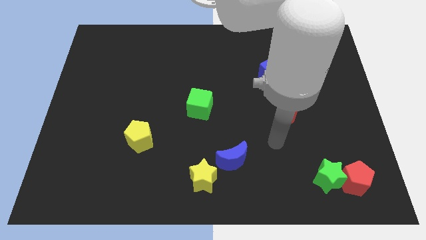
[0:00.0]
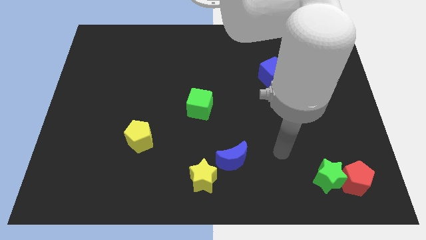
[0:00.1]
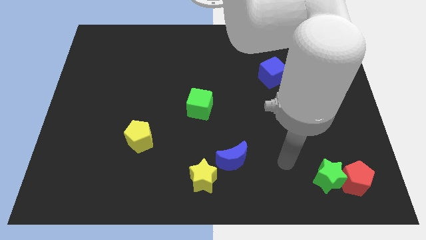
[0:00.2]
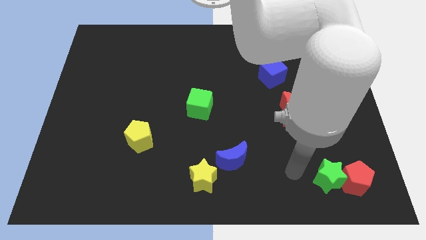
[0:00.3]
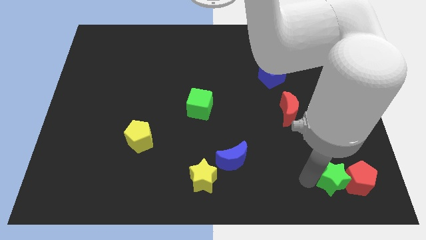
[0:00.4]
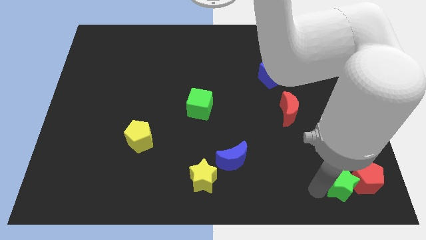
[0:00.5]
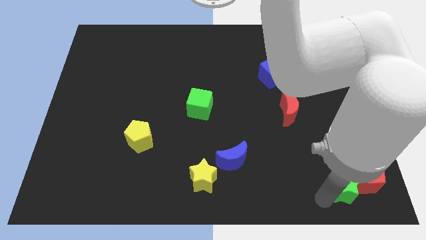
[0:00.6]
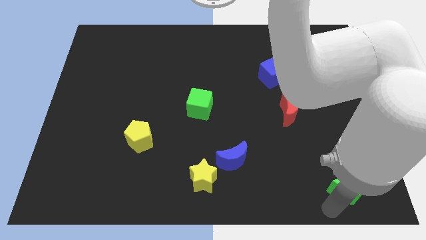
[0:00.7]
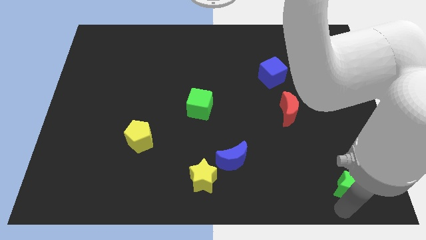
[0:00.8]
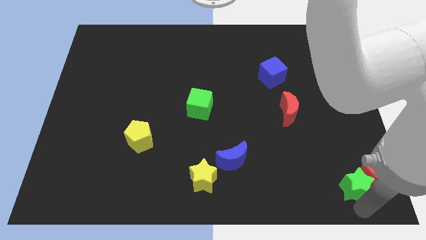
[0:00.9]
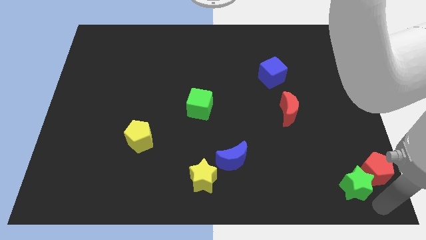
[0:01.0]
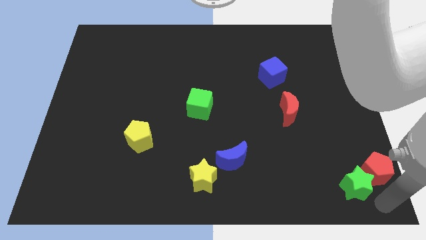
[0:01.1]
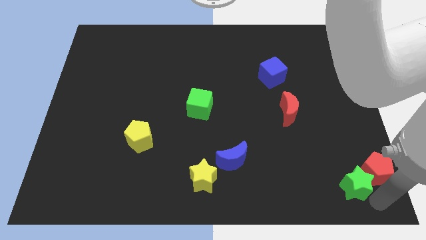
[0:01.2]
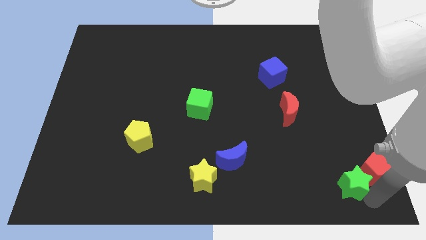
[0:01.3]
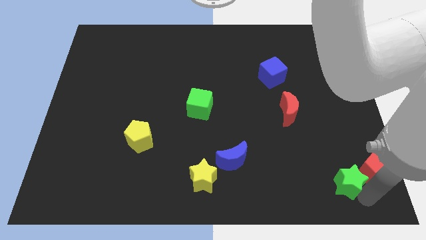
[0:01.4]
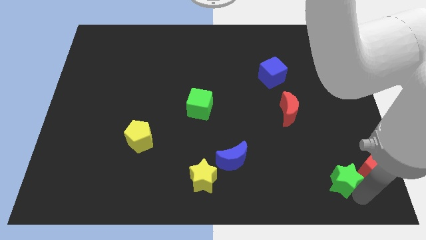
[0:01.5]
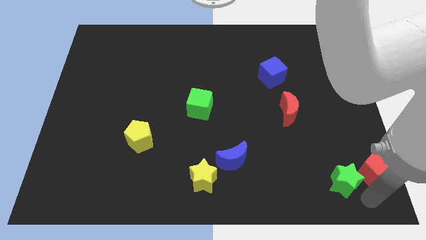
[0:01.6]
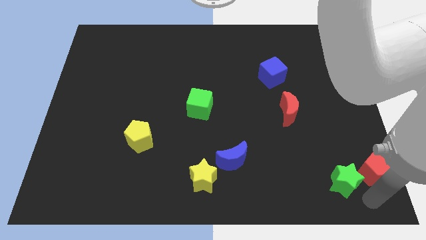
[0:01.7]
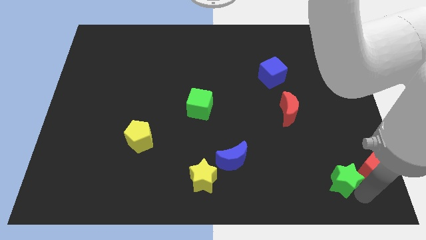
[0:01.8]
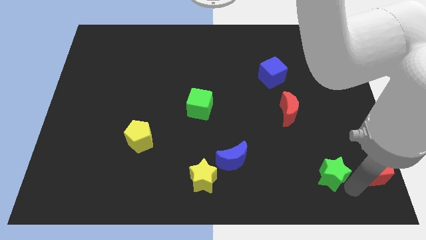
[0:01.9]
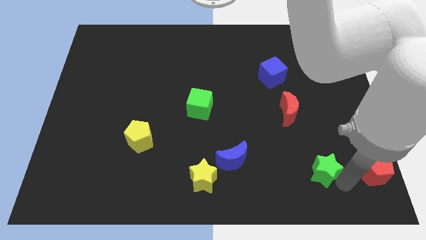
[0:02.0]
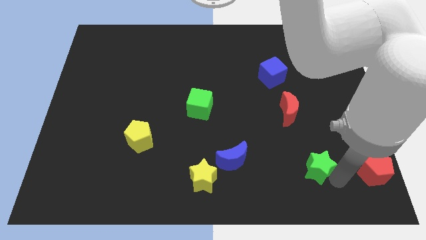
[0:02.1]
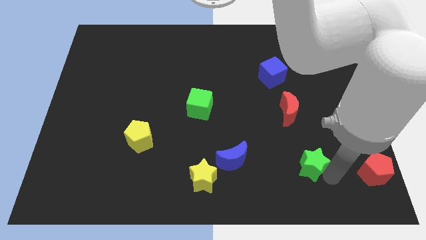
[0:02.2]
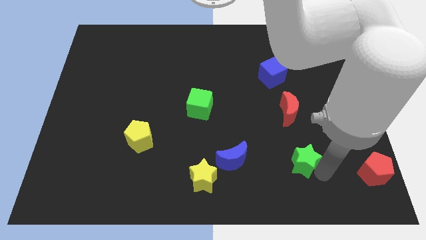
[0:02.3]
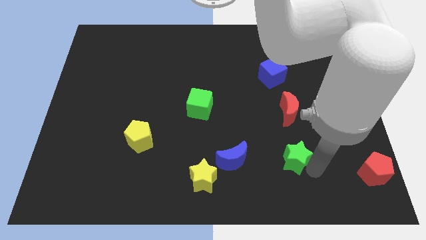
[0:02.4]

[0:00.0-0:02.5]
slide the green star somewhat up and to the left diagonally

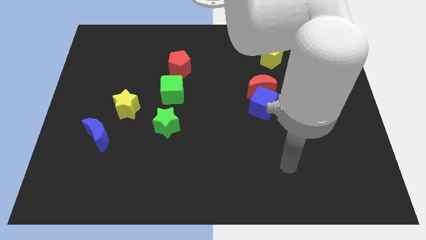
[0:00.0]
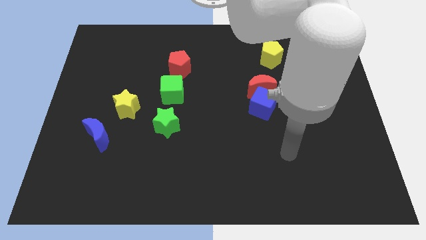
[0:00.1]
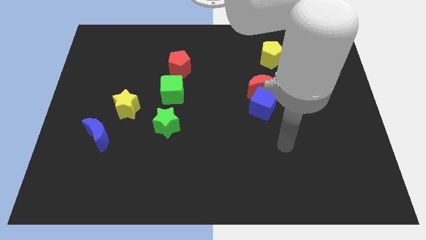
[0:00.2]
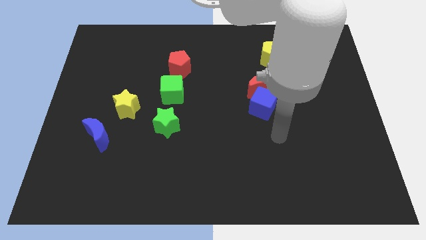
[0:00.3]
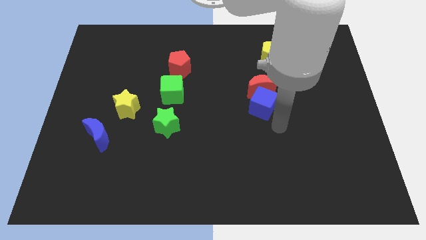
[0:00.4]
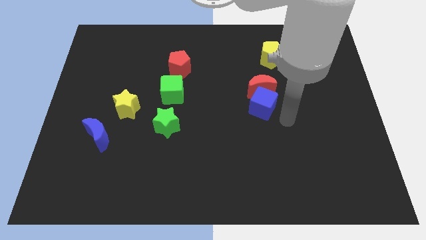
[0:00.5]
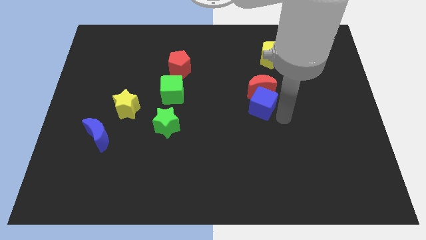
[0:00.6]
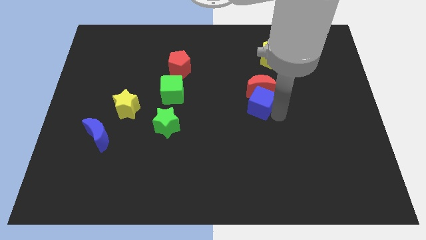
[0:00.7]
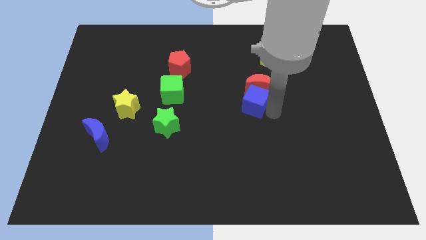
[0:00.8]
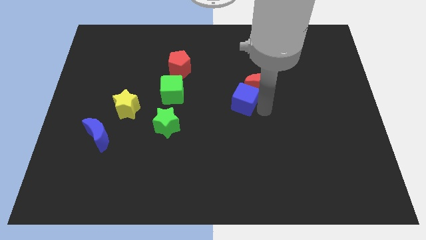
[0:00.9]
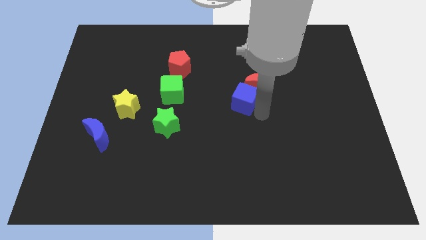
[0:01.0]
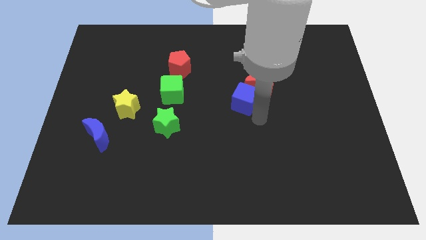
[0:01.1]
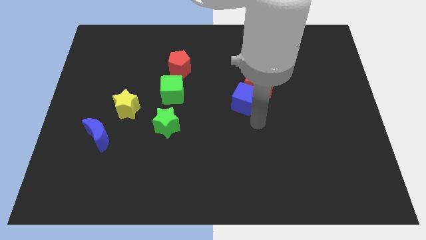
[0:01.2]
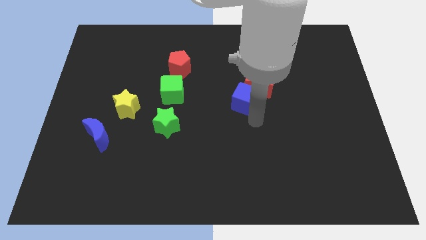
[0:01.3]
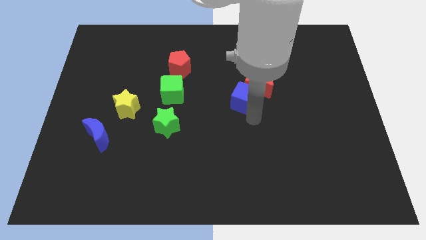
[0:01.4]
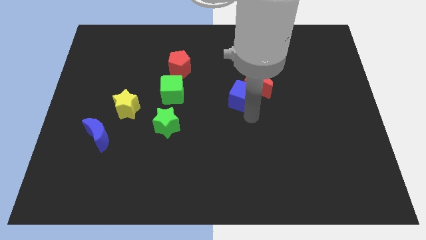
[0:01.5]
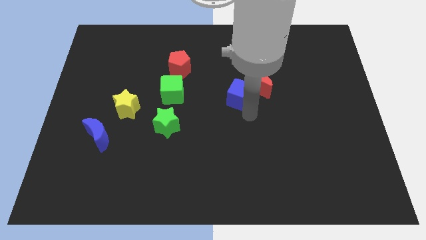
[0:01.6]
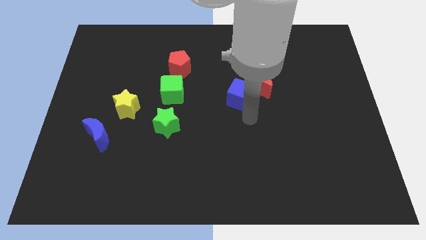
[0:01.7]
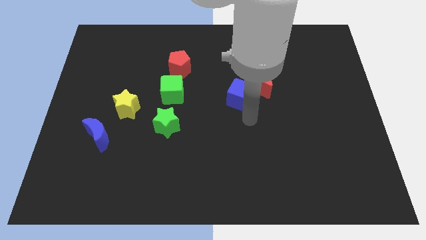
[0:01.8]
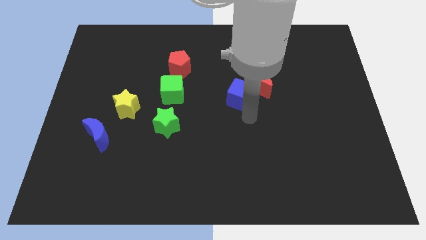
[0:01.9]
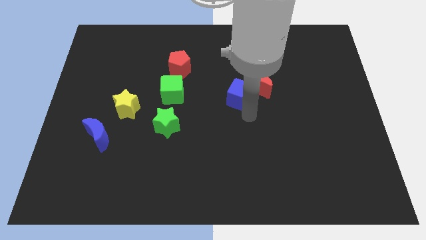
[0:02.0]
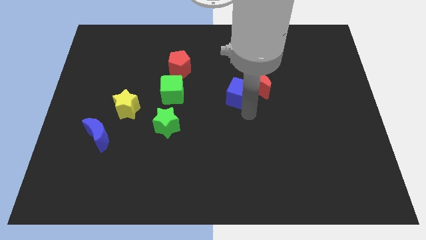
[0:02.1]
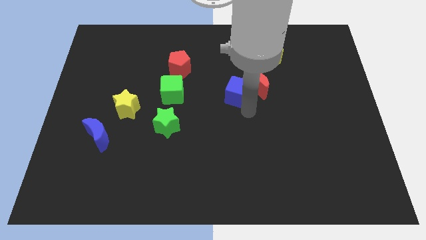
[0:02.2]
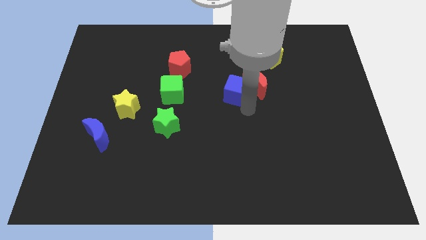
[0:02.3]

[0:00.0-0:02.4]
slide the blue cube upwards and then left slightly

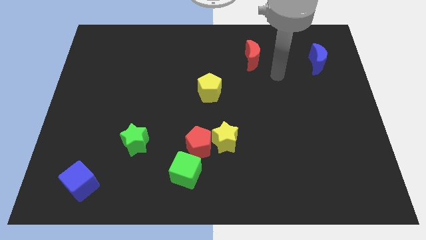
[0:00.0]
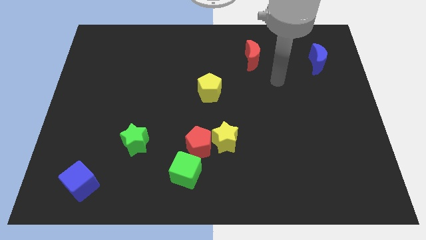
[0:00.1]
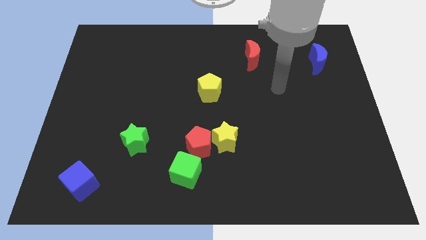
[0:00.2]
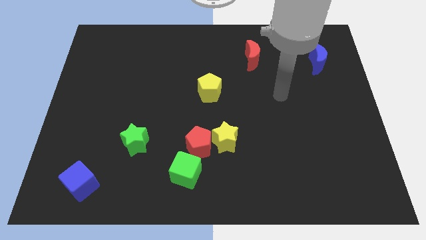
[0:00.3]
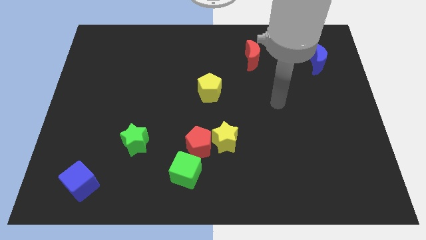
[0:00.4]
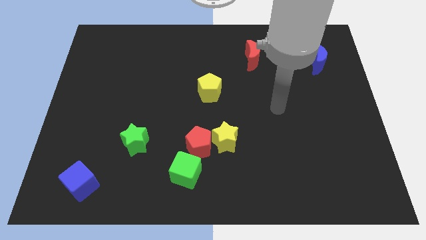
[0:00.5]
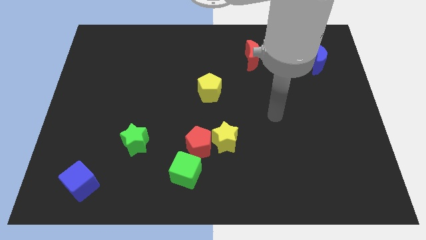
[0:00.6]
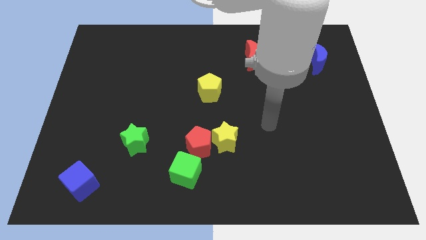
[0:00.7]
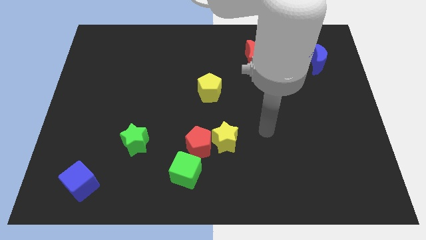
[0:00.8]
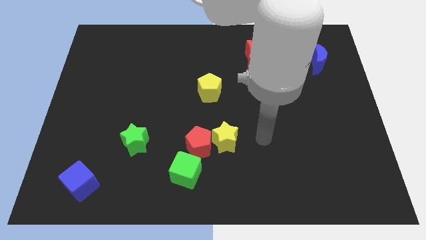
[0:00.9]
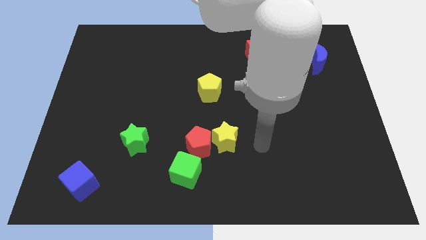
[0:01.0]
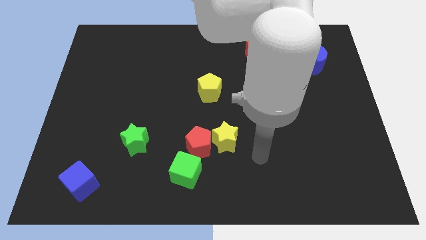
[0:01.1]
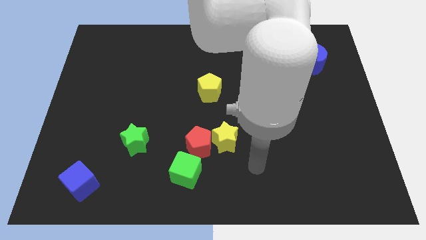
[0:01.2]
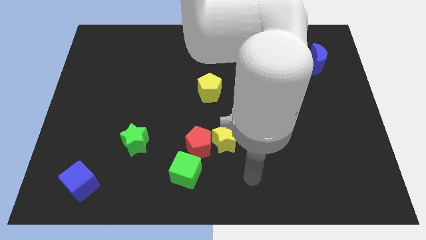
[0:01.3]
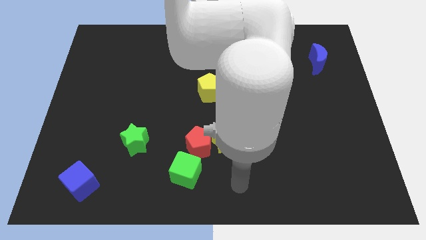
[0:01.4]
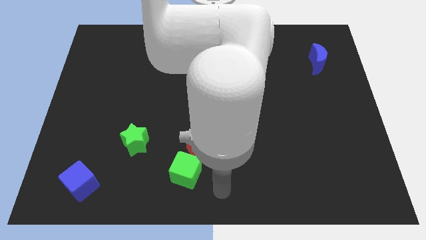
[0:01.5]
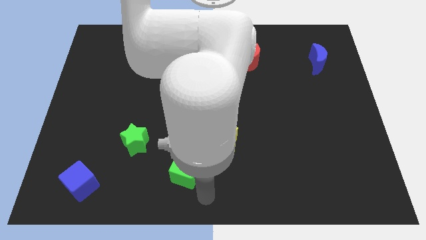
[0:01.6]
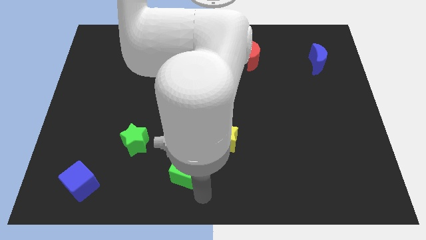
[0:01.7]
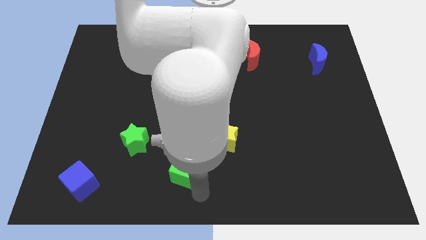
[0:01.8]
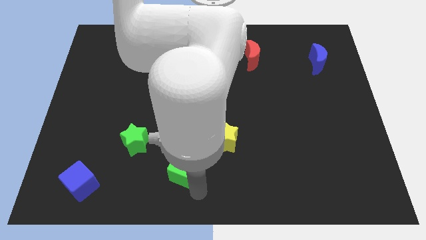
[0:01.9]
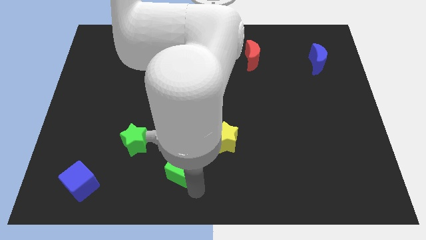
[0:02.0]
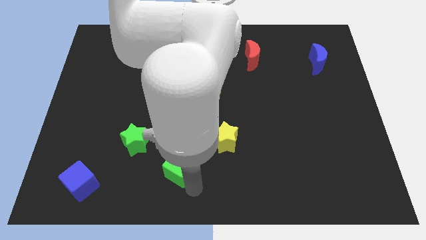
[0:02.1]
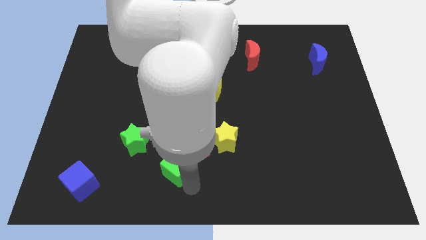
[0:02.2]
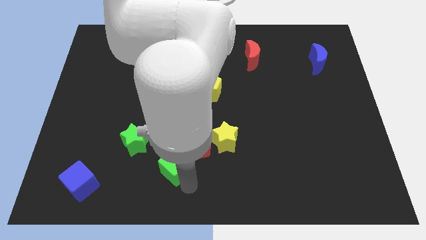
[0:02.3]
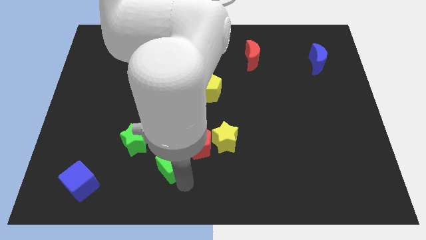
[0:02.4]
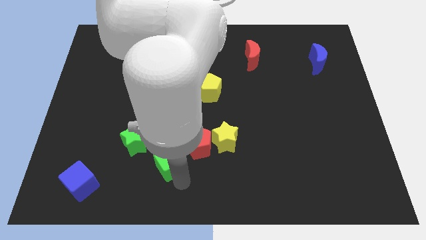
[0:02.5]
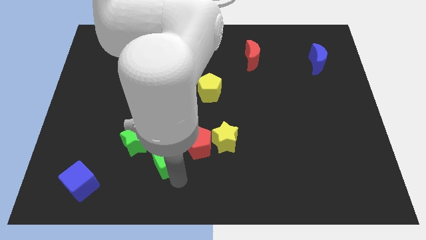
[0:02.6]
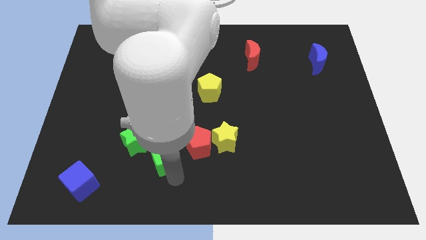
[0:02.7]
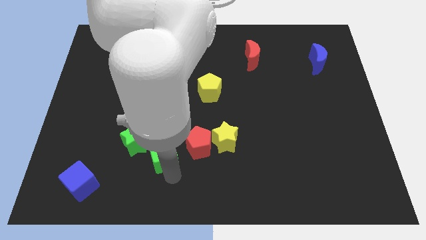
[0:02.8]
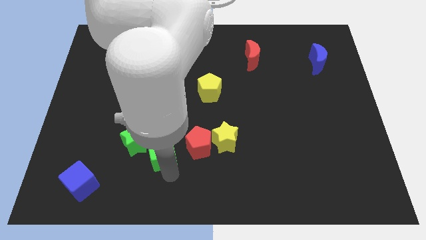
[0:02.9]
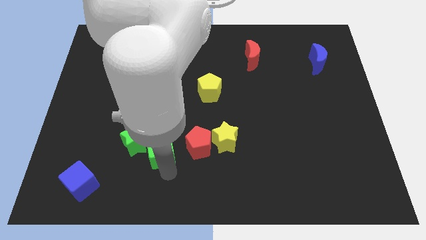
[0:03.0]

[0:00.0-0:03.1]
slightly push the green cube up and left diagonally

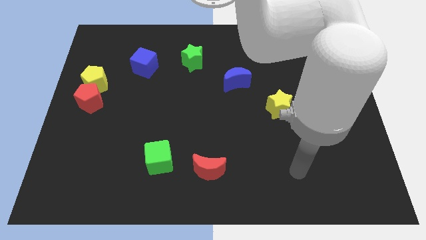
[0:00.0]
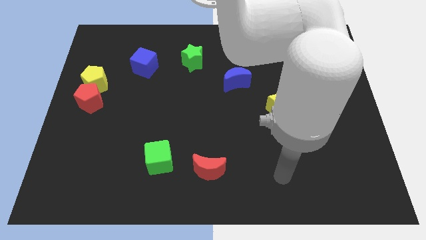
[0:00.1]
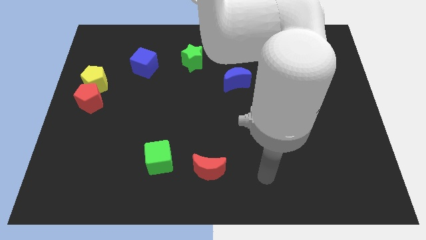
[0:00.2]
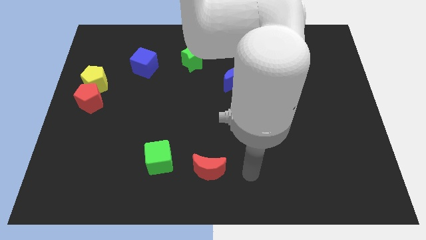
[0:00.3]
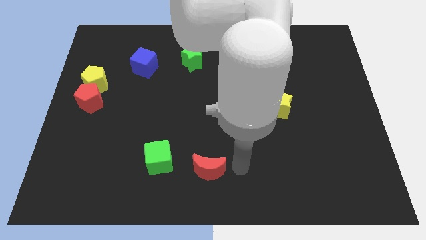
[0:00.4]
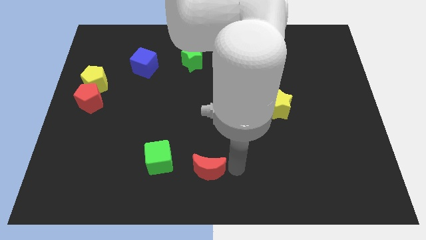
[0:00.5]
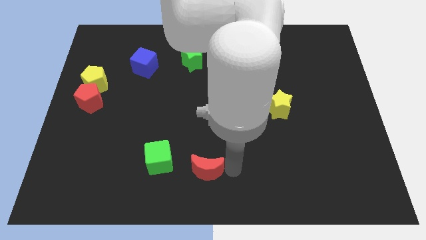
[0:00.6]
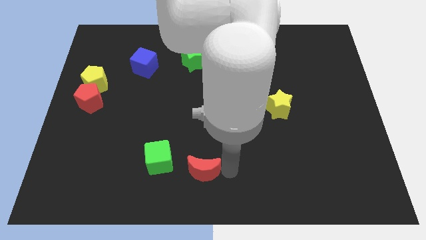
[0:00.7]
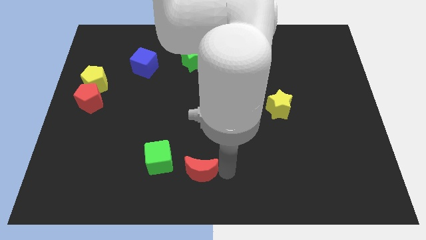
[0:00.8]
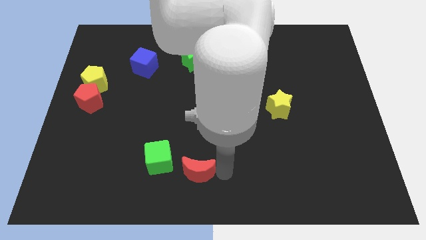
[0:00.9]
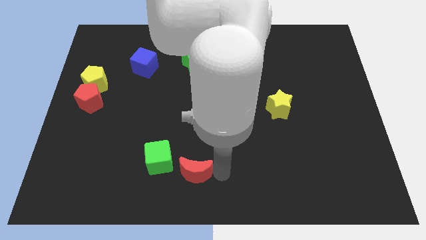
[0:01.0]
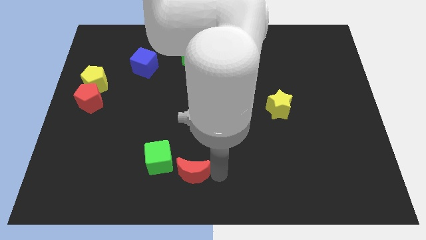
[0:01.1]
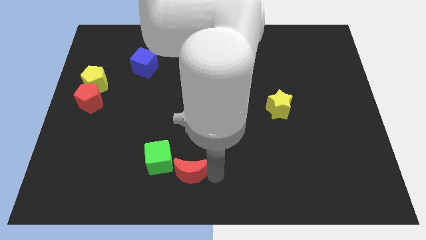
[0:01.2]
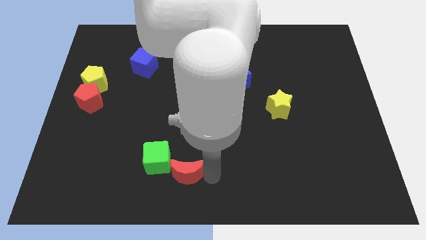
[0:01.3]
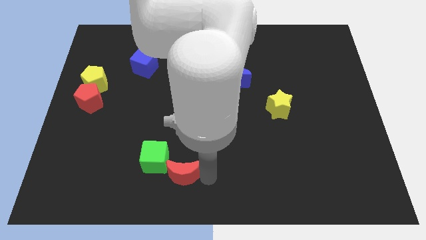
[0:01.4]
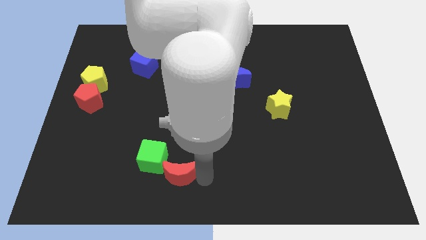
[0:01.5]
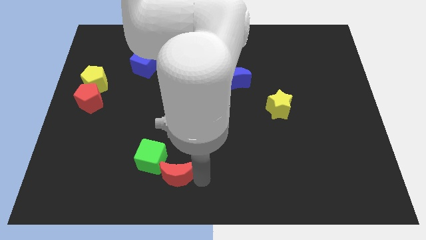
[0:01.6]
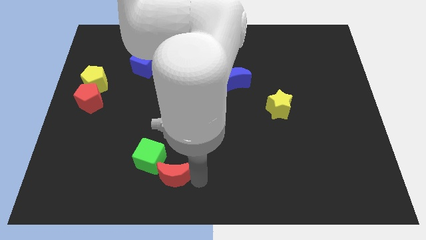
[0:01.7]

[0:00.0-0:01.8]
push the red moon slightly left
